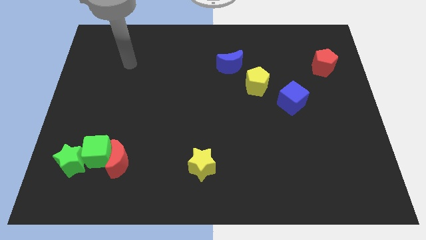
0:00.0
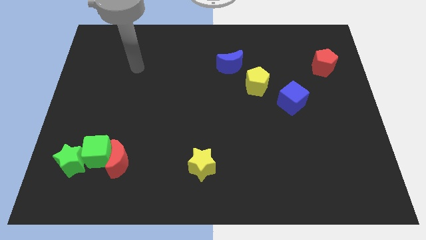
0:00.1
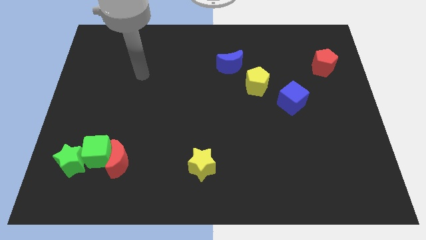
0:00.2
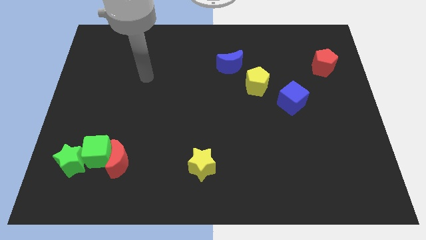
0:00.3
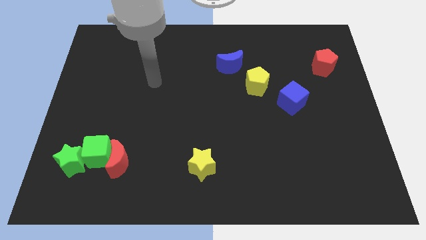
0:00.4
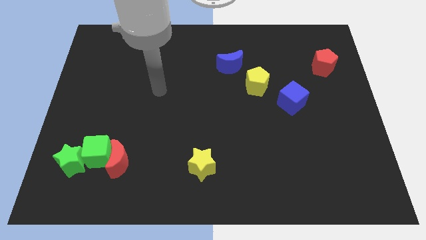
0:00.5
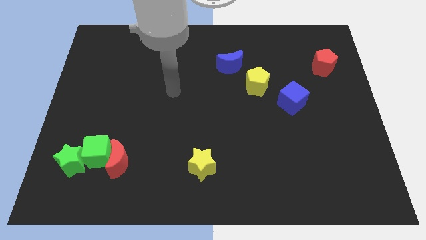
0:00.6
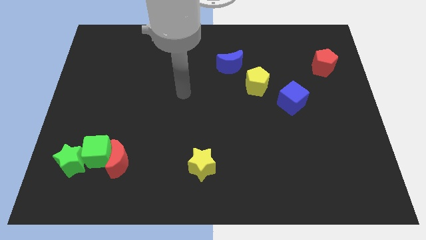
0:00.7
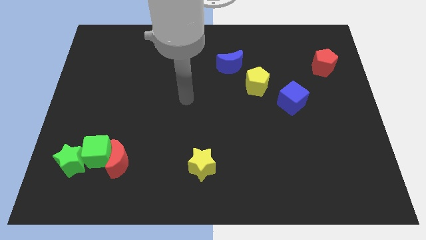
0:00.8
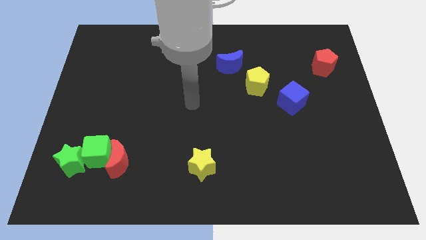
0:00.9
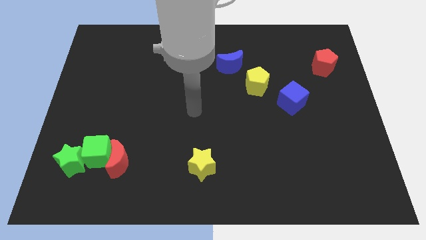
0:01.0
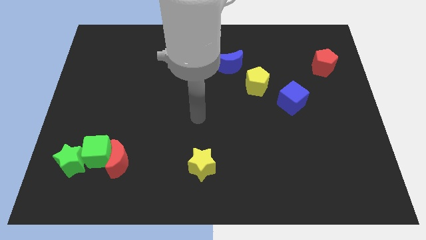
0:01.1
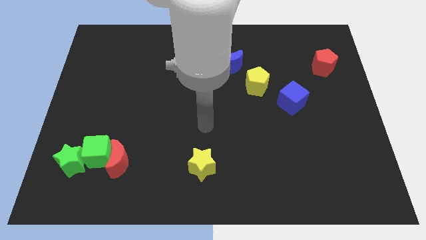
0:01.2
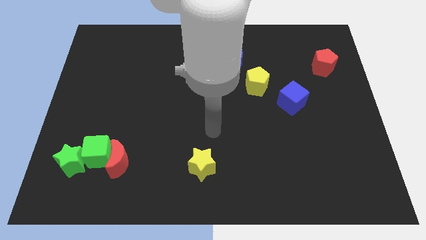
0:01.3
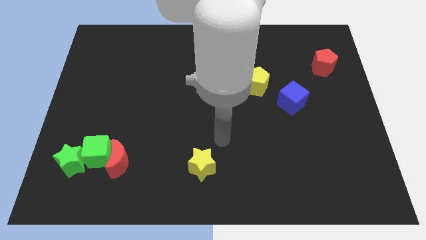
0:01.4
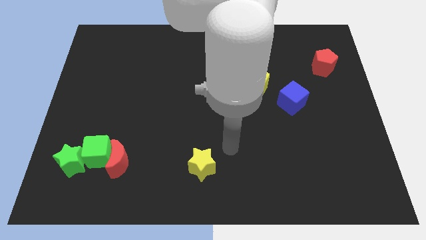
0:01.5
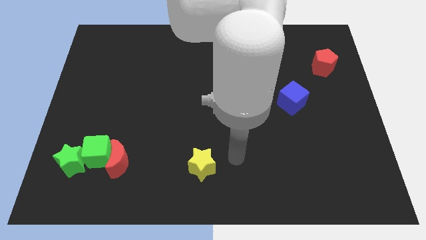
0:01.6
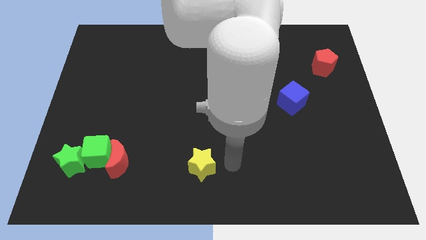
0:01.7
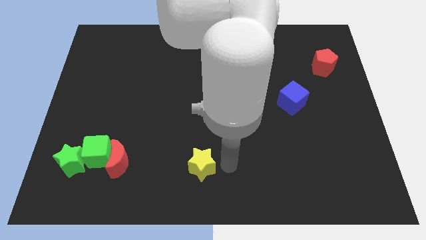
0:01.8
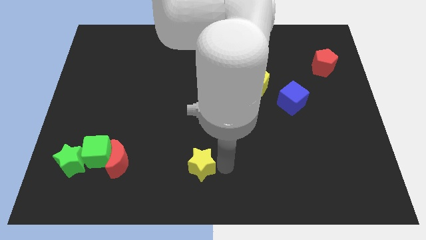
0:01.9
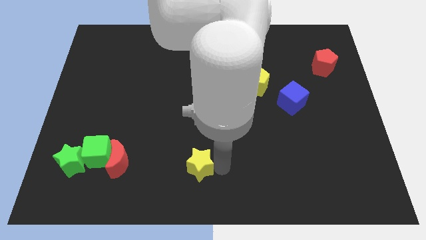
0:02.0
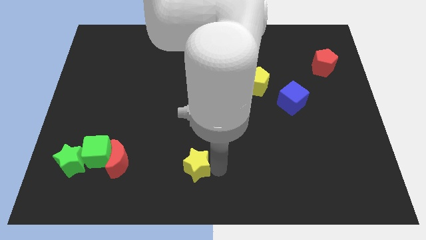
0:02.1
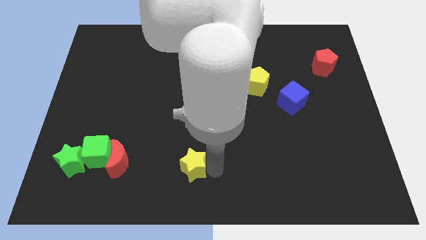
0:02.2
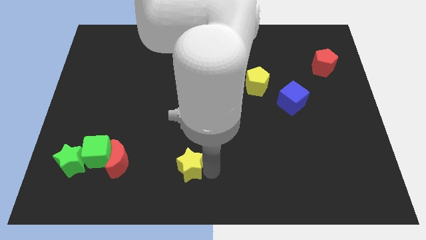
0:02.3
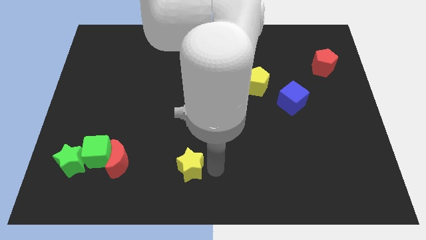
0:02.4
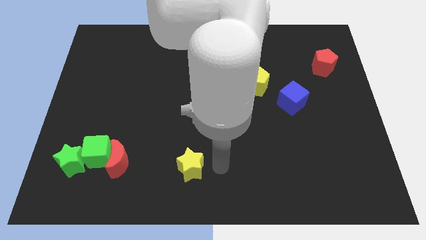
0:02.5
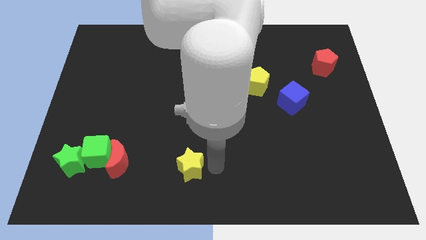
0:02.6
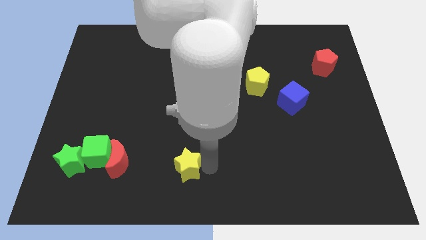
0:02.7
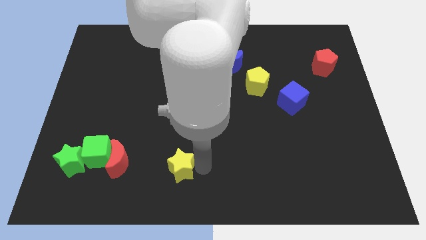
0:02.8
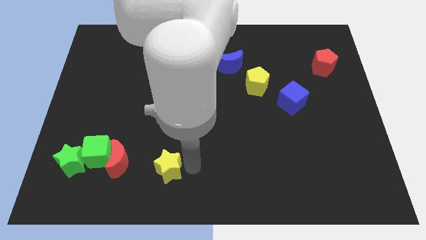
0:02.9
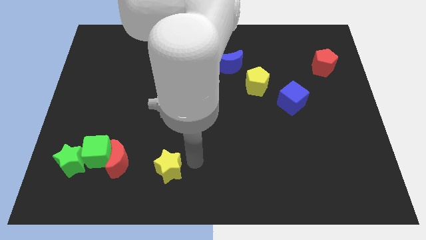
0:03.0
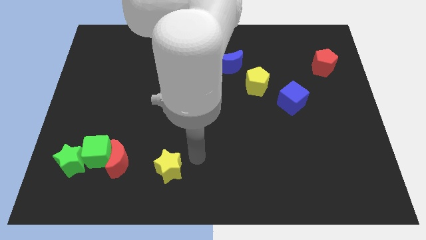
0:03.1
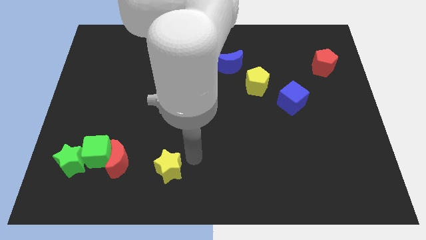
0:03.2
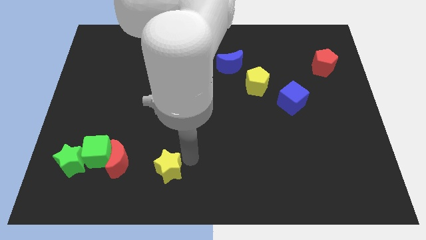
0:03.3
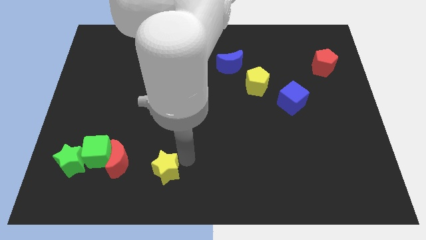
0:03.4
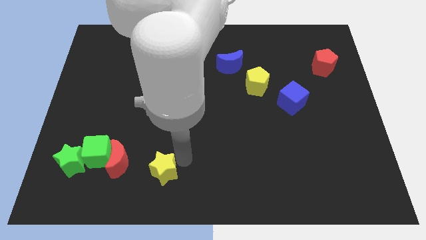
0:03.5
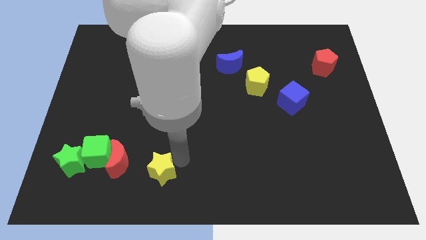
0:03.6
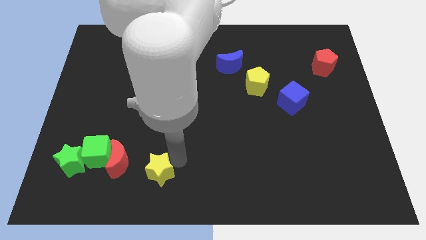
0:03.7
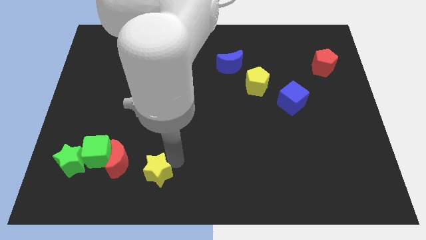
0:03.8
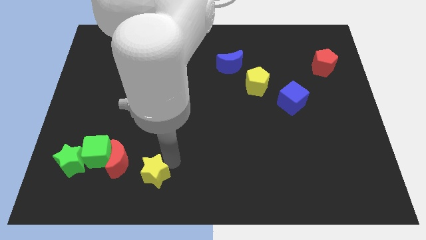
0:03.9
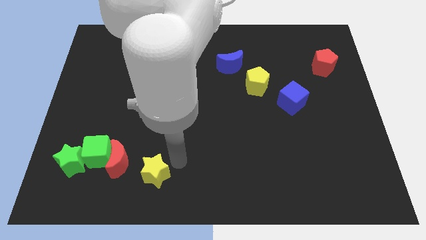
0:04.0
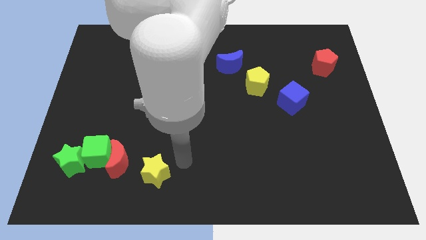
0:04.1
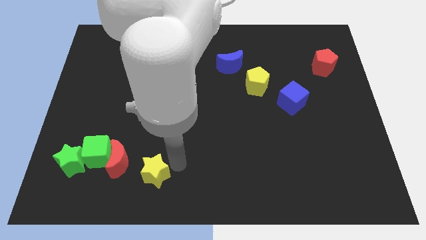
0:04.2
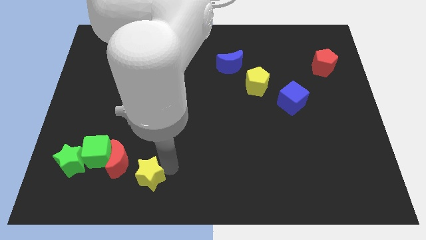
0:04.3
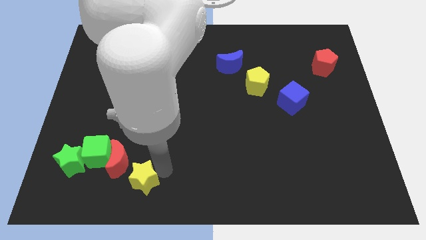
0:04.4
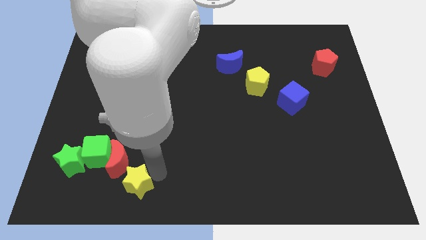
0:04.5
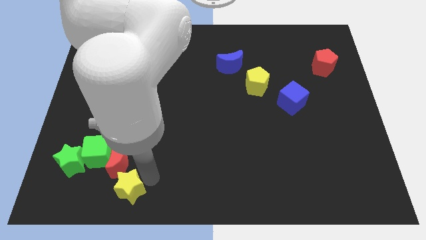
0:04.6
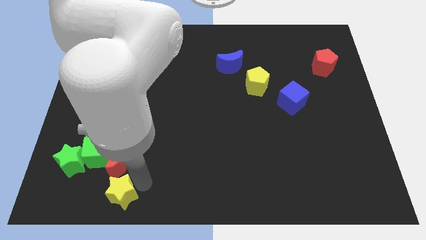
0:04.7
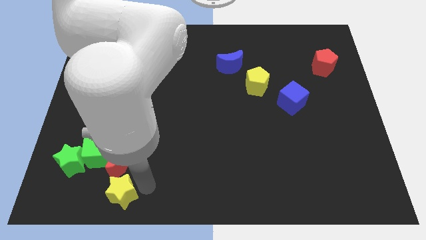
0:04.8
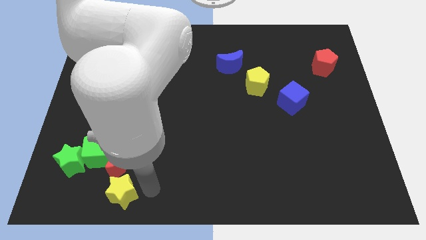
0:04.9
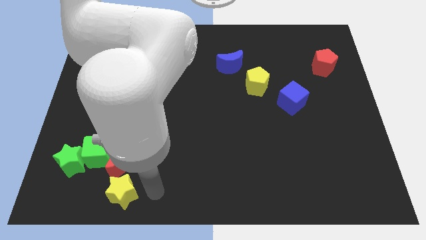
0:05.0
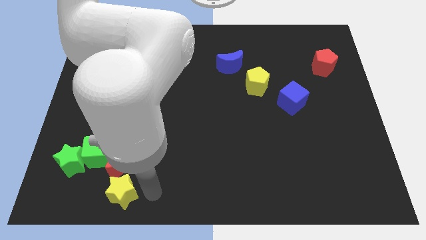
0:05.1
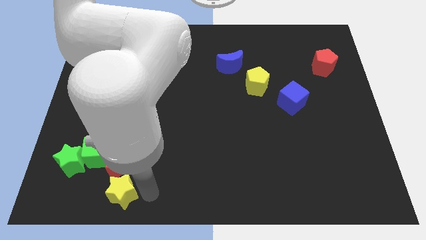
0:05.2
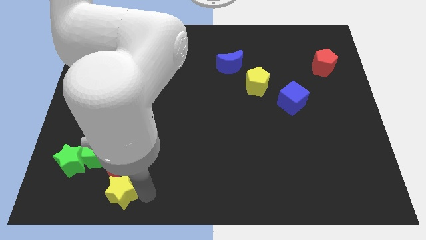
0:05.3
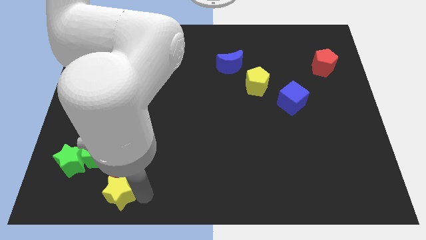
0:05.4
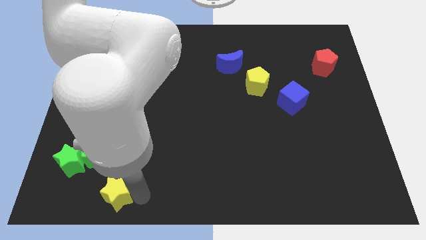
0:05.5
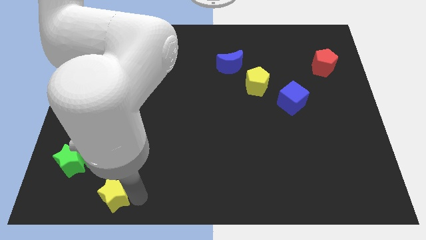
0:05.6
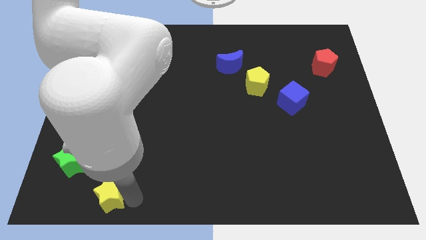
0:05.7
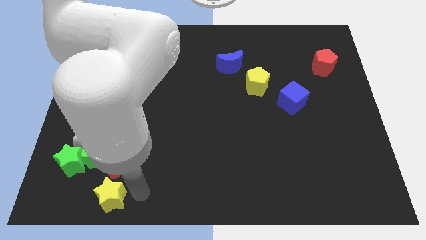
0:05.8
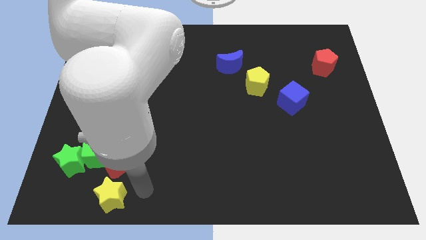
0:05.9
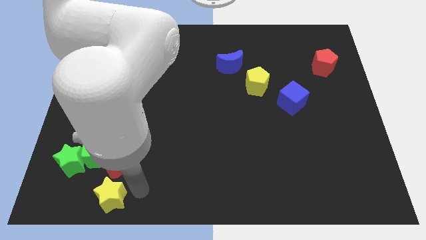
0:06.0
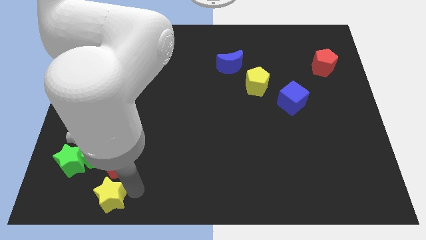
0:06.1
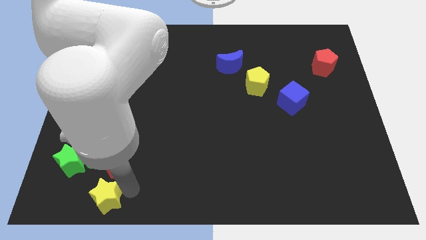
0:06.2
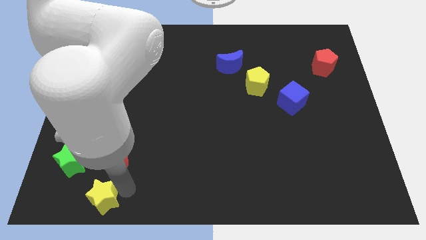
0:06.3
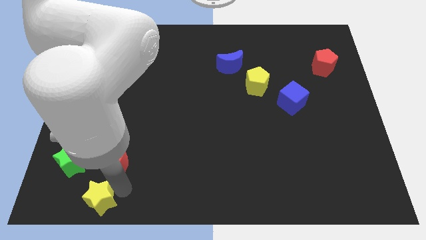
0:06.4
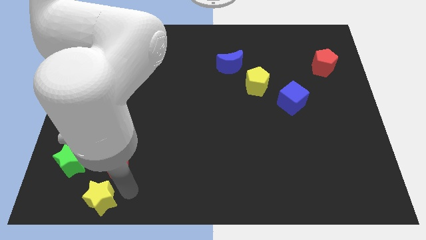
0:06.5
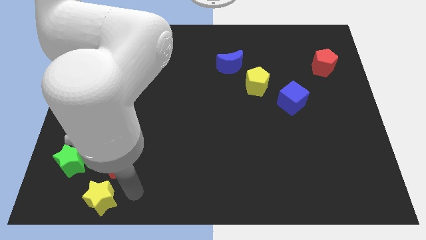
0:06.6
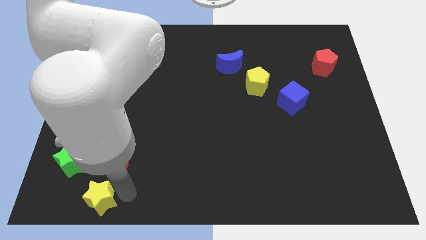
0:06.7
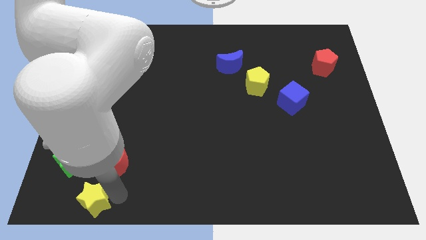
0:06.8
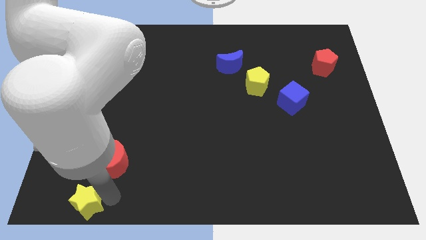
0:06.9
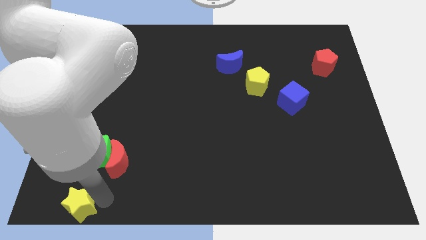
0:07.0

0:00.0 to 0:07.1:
put the yellow star to the bottom left of the board
